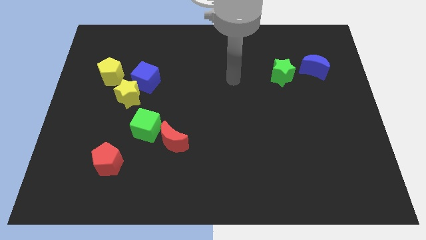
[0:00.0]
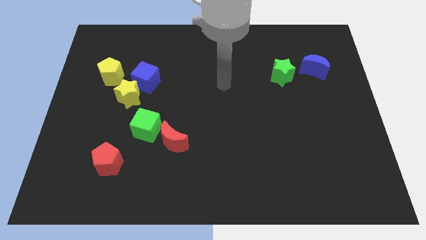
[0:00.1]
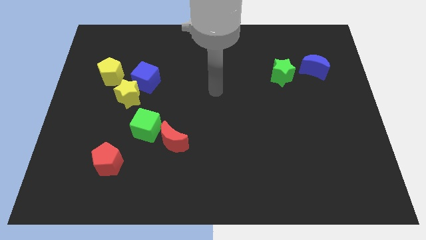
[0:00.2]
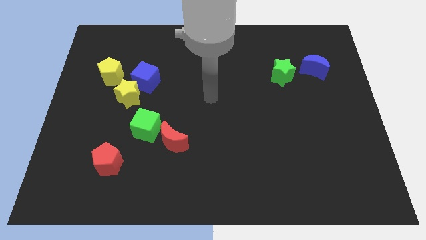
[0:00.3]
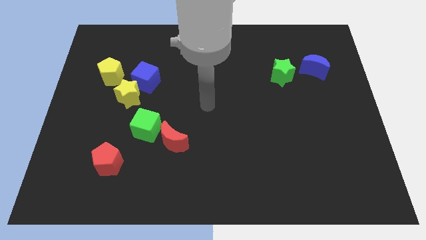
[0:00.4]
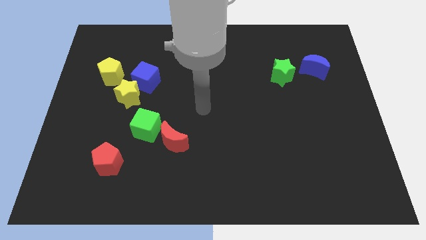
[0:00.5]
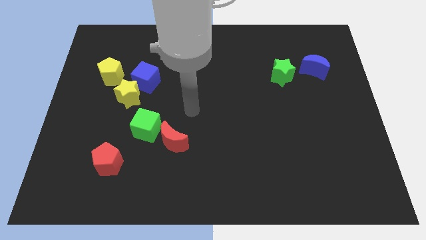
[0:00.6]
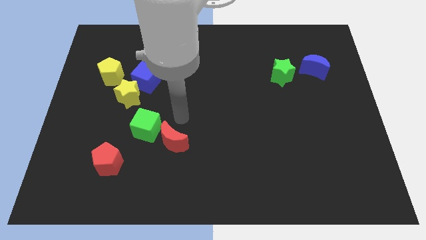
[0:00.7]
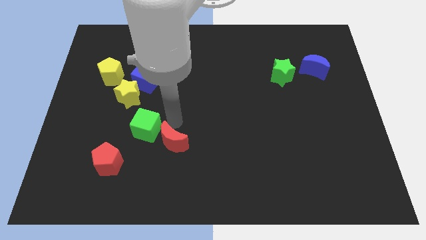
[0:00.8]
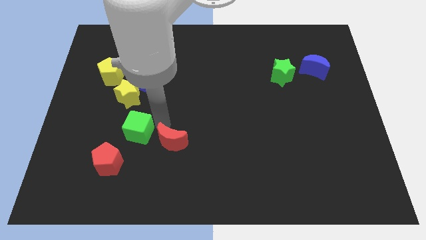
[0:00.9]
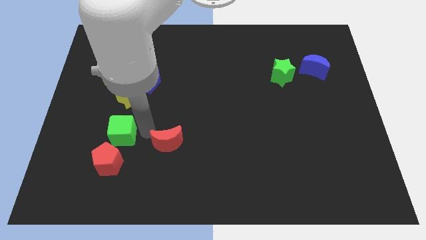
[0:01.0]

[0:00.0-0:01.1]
pull the red moon apart from the green cube

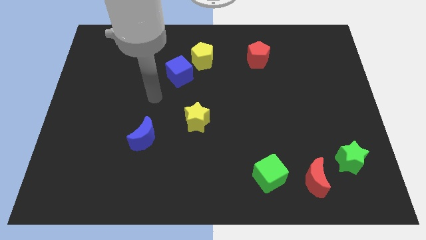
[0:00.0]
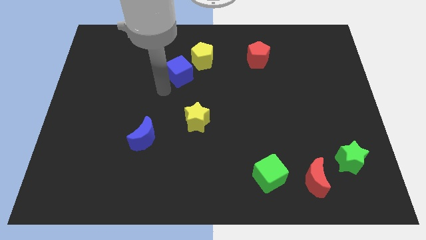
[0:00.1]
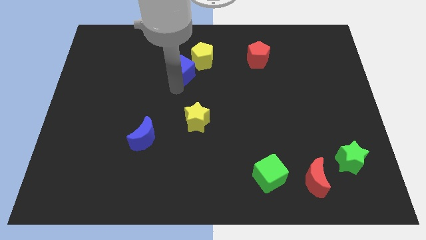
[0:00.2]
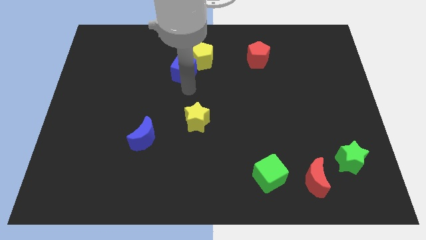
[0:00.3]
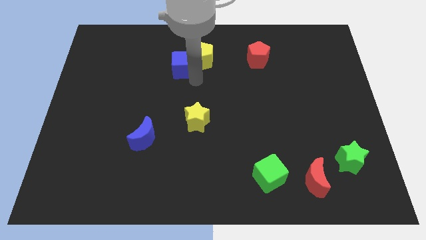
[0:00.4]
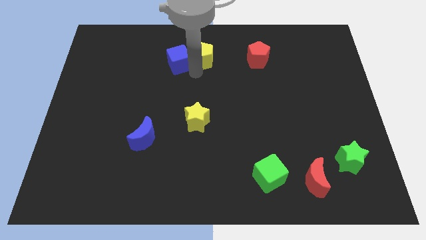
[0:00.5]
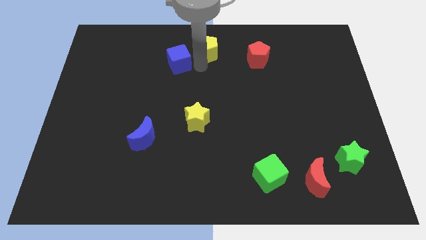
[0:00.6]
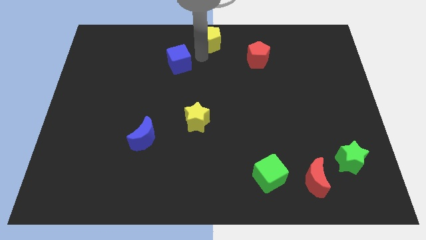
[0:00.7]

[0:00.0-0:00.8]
pull the blue cube apart from the yellow pentagon

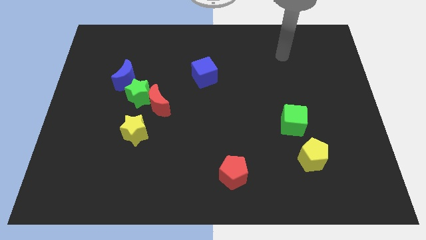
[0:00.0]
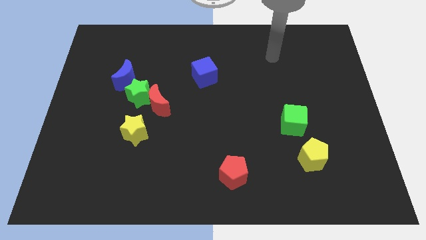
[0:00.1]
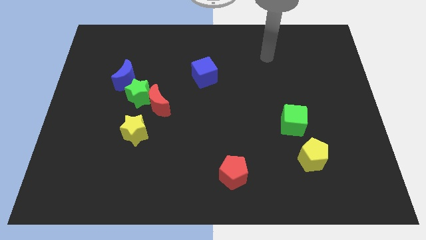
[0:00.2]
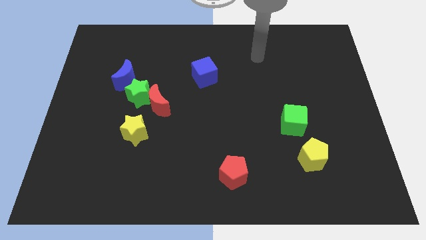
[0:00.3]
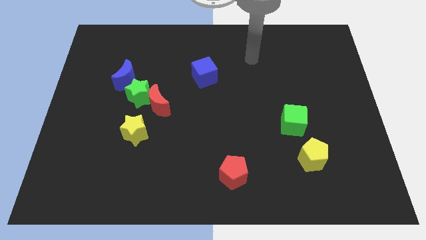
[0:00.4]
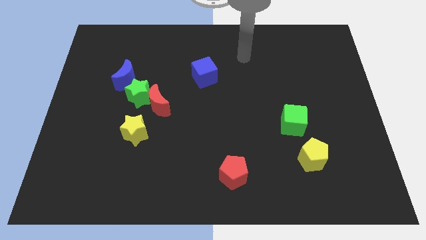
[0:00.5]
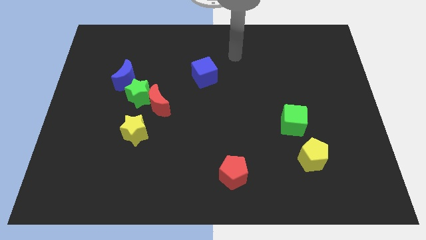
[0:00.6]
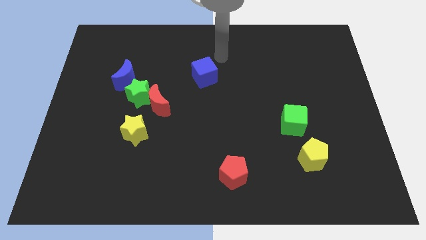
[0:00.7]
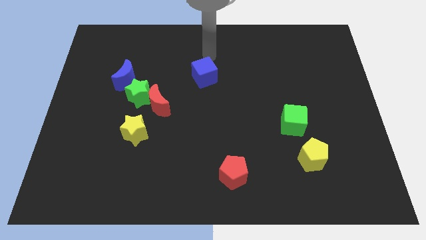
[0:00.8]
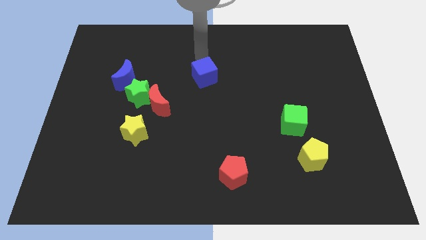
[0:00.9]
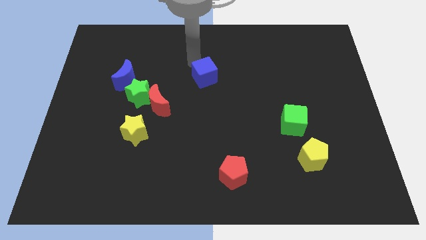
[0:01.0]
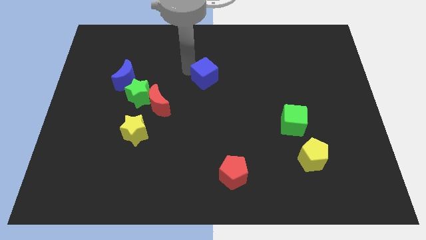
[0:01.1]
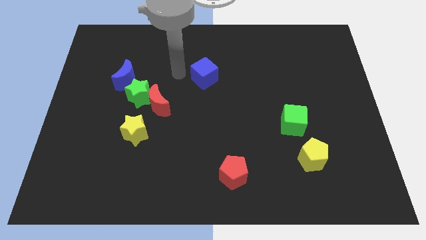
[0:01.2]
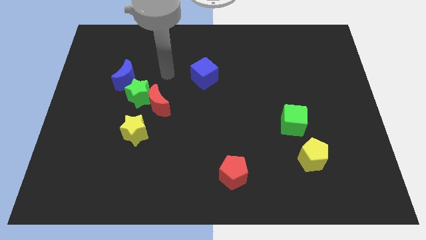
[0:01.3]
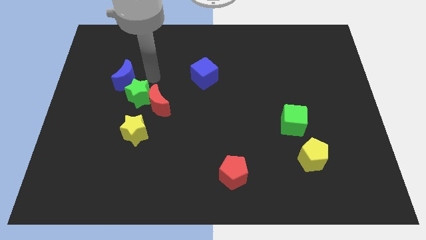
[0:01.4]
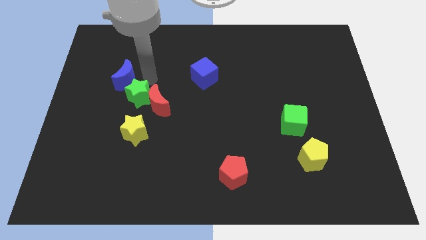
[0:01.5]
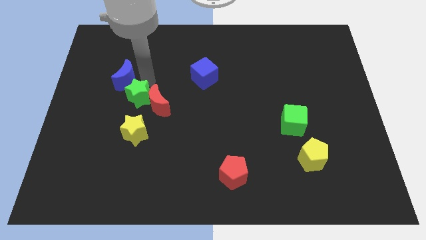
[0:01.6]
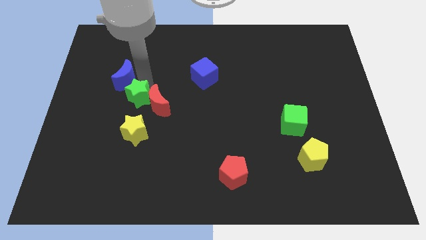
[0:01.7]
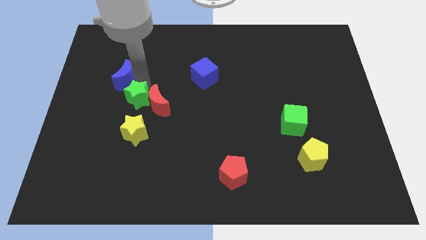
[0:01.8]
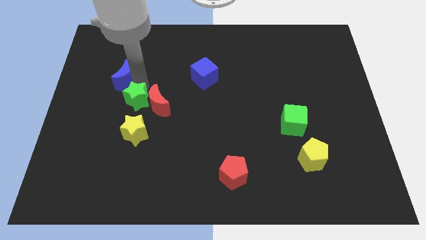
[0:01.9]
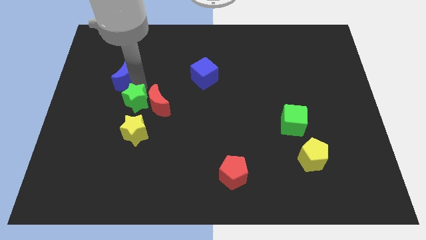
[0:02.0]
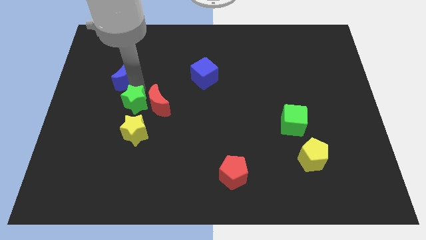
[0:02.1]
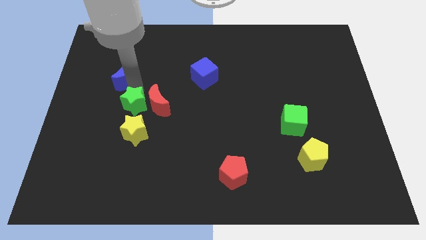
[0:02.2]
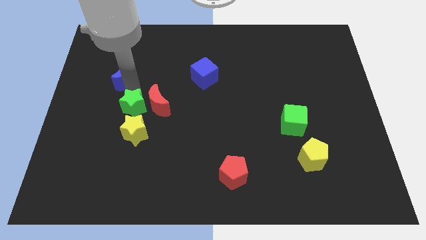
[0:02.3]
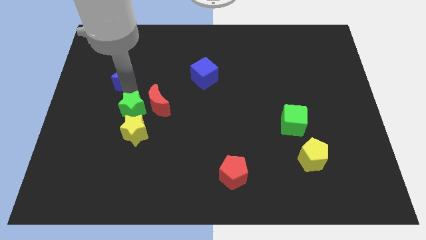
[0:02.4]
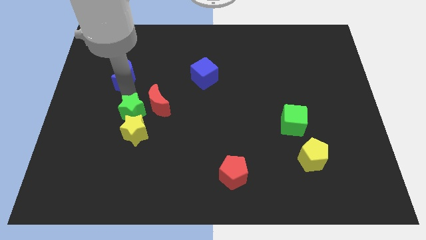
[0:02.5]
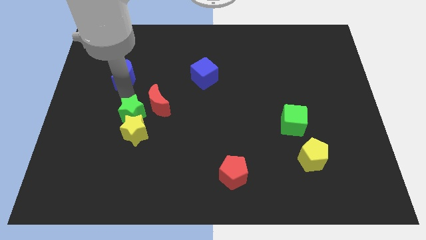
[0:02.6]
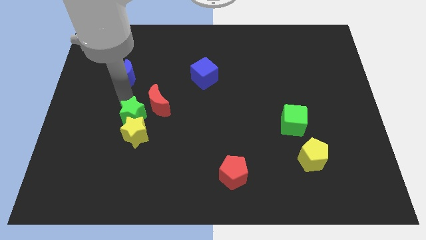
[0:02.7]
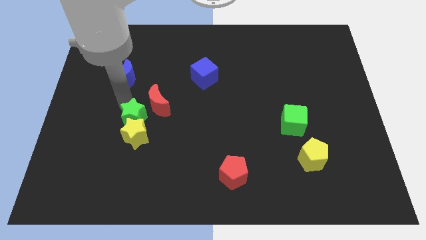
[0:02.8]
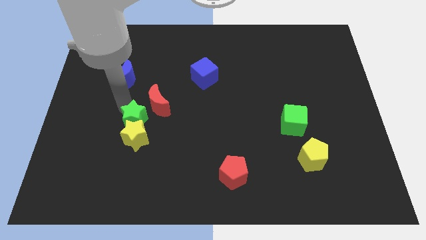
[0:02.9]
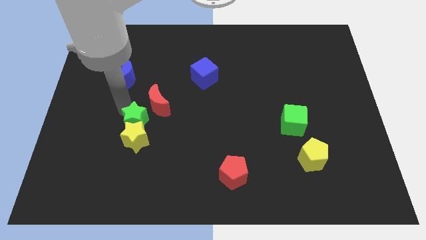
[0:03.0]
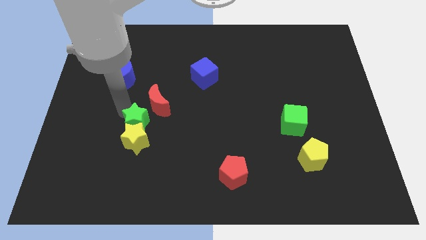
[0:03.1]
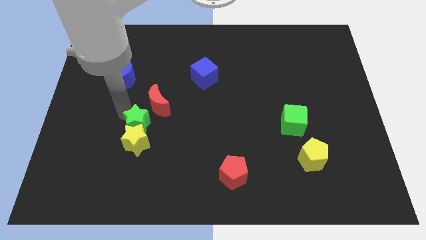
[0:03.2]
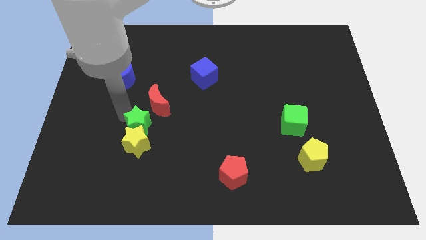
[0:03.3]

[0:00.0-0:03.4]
move the green star away from the red moon and blue moon

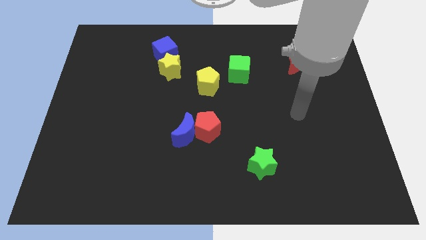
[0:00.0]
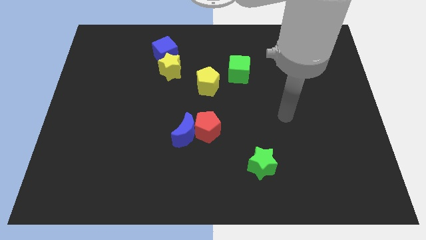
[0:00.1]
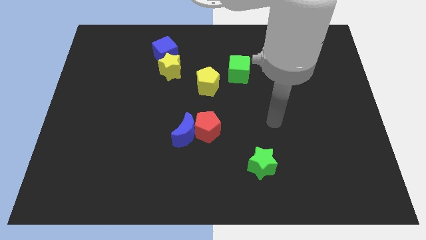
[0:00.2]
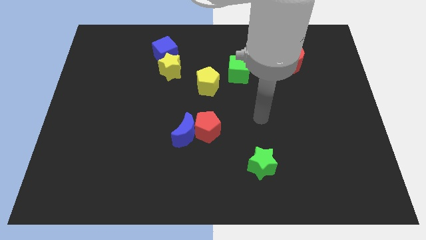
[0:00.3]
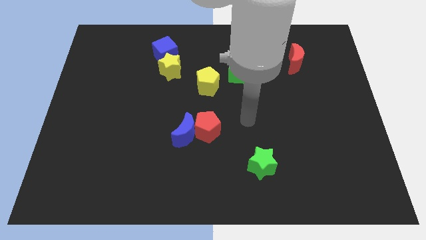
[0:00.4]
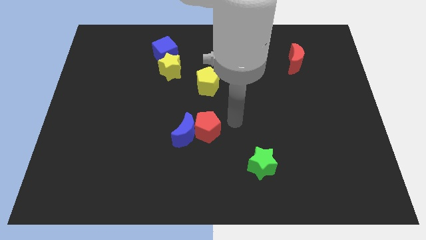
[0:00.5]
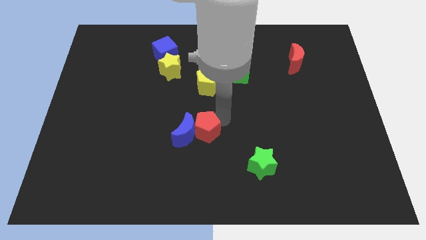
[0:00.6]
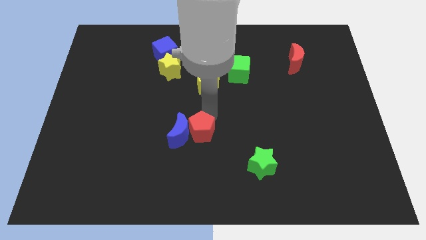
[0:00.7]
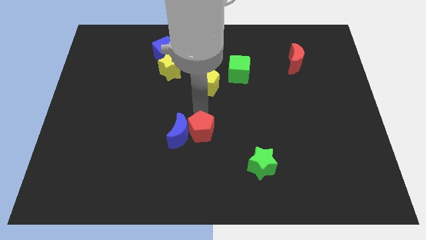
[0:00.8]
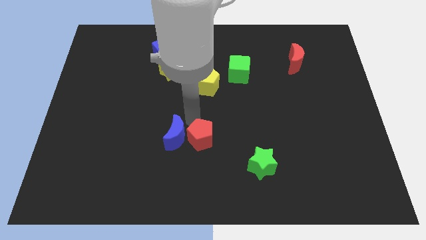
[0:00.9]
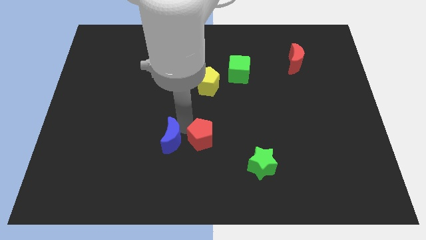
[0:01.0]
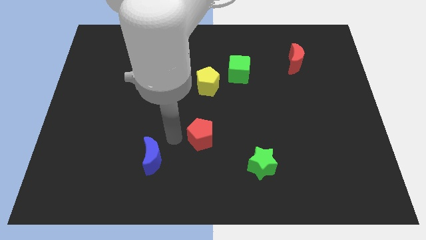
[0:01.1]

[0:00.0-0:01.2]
pull the red pentagon apart from the blue moon

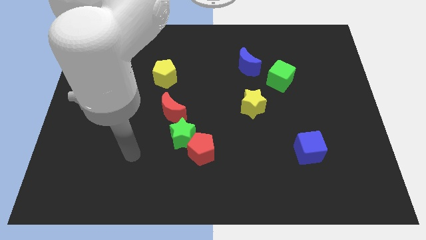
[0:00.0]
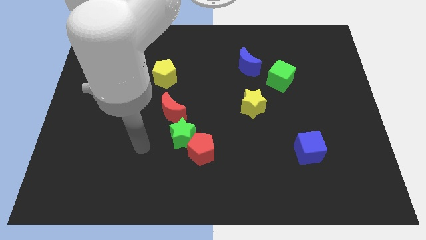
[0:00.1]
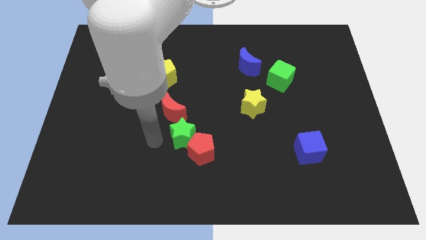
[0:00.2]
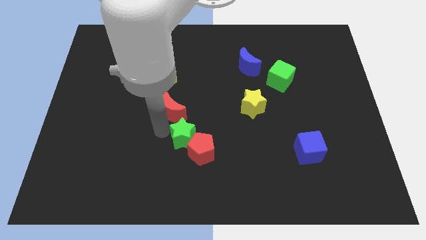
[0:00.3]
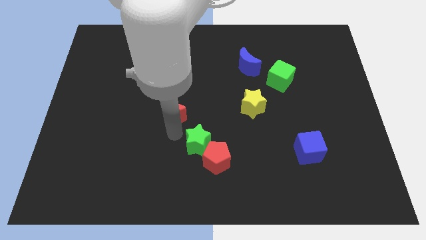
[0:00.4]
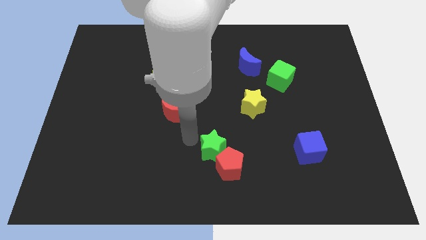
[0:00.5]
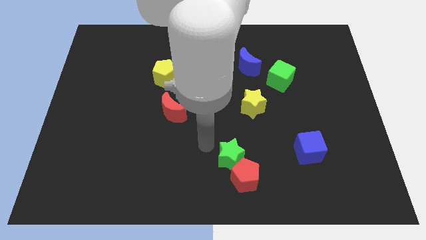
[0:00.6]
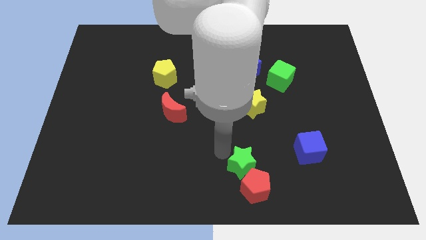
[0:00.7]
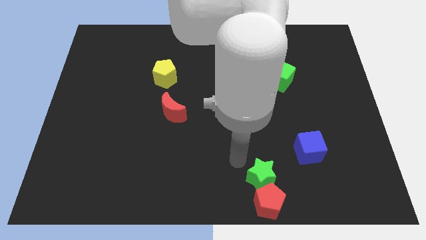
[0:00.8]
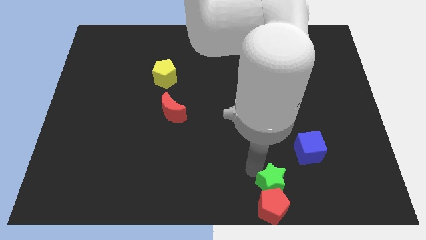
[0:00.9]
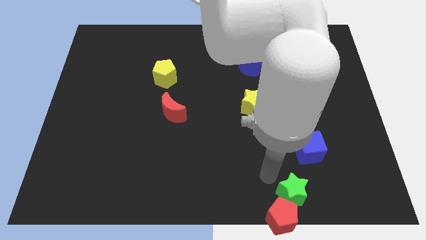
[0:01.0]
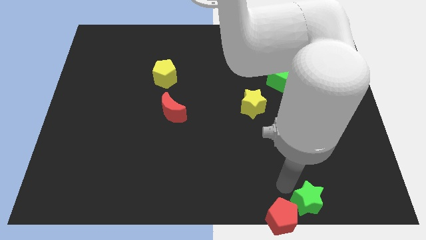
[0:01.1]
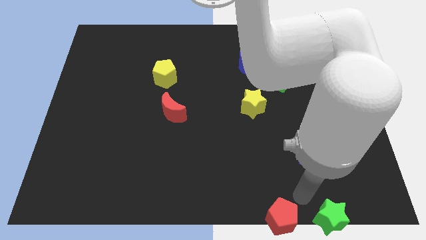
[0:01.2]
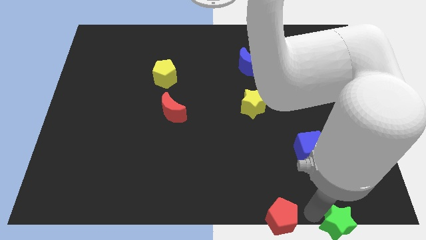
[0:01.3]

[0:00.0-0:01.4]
move the red pentagon away from the green star

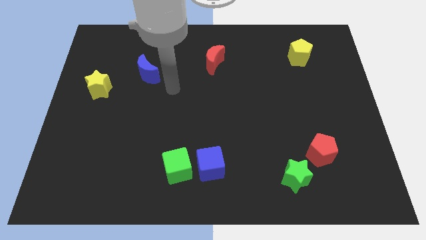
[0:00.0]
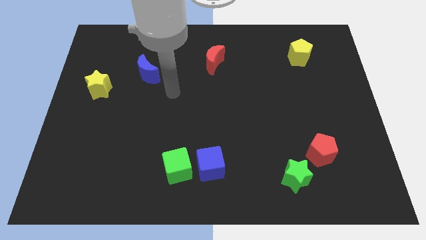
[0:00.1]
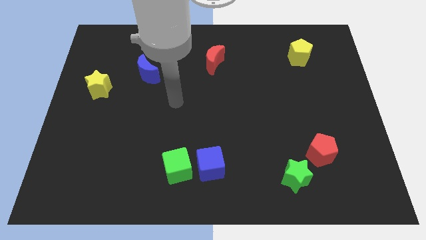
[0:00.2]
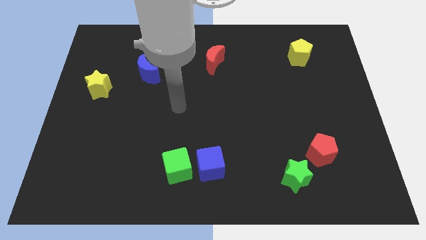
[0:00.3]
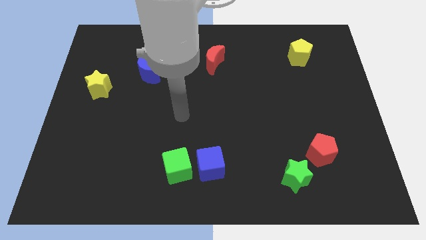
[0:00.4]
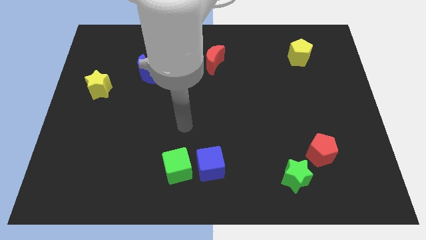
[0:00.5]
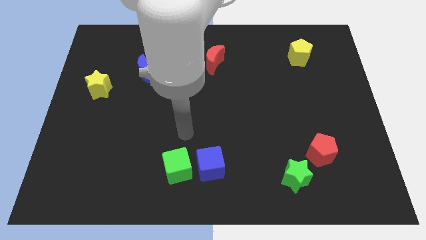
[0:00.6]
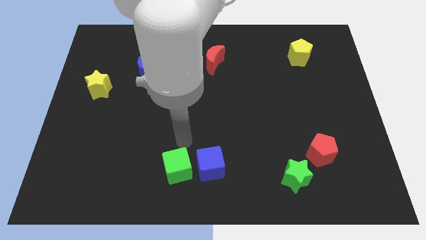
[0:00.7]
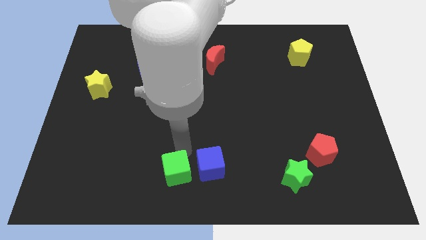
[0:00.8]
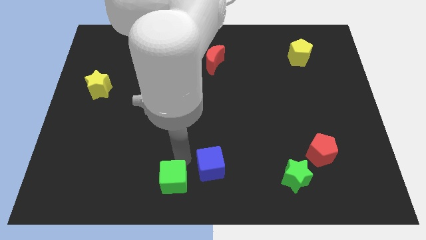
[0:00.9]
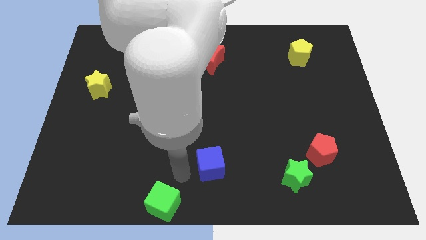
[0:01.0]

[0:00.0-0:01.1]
pull the blue cube apart from the green cube

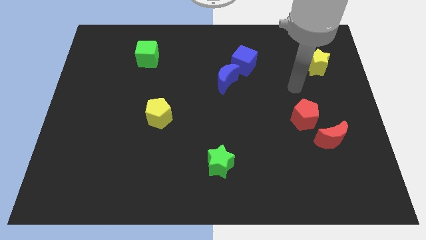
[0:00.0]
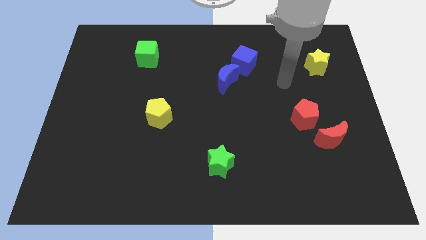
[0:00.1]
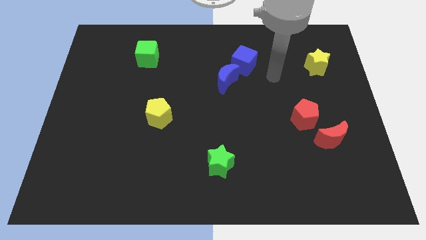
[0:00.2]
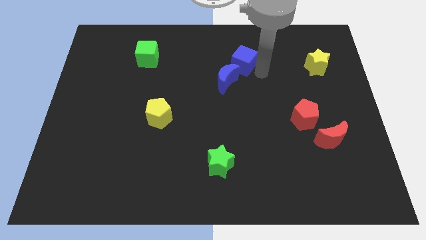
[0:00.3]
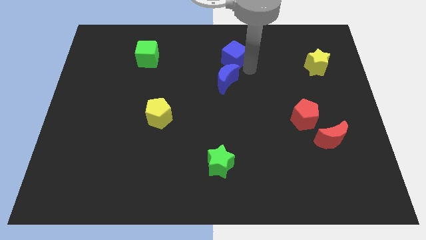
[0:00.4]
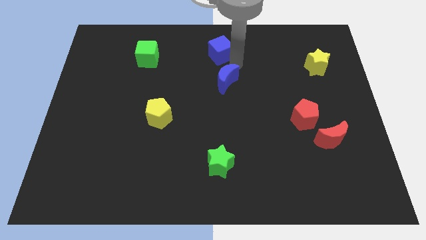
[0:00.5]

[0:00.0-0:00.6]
move the blue moon away from the blue cube
